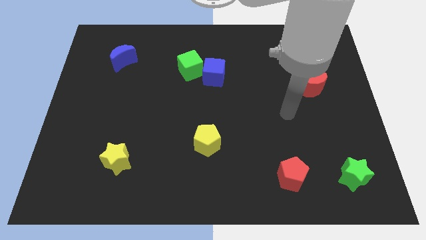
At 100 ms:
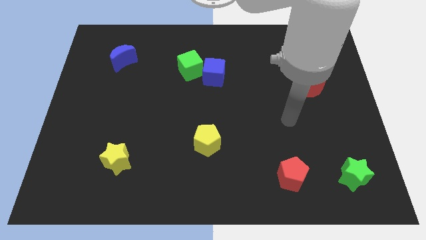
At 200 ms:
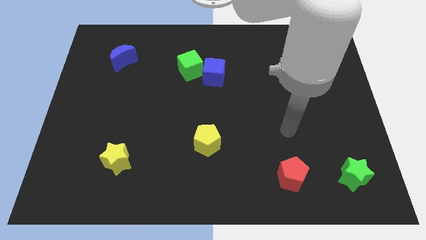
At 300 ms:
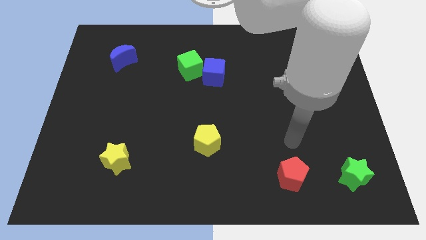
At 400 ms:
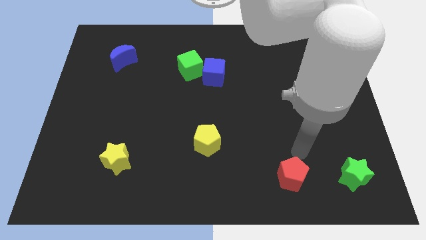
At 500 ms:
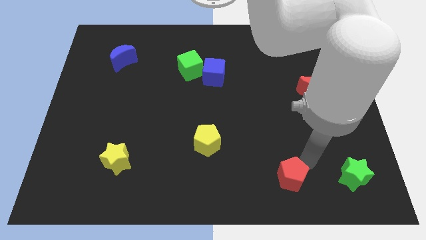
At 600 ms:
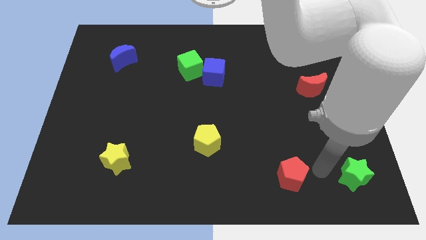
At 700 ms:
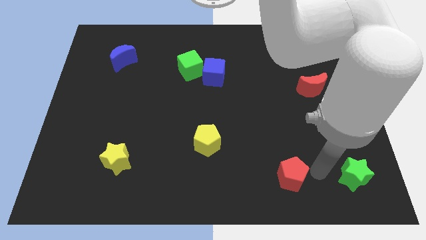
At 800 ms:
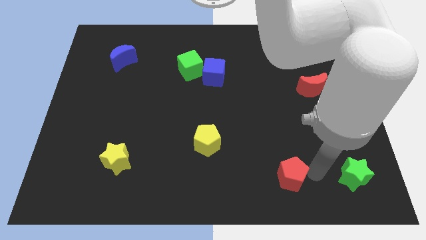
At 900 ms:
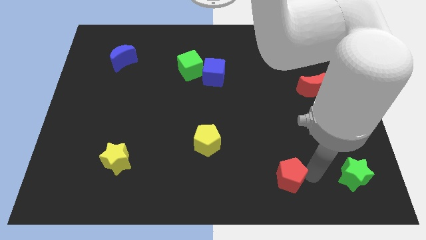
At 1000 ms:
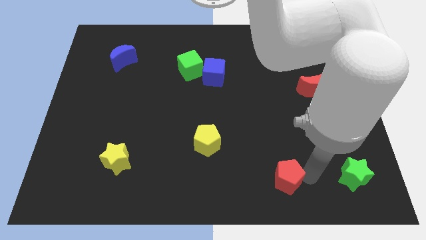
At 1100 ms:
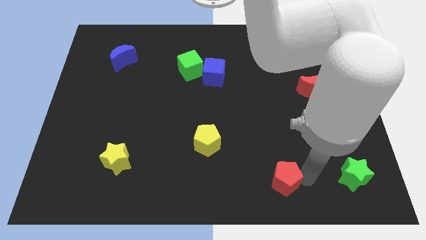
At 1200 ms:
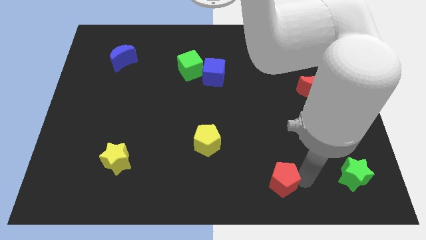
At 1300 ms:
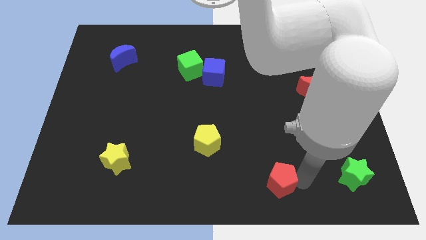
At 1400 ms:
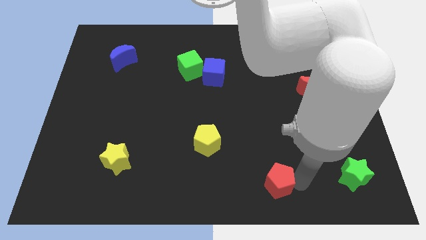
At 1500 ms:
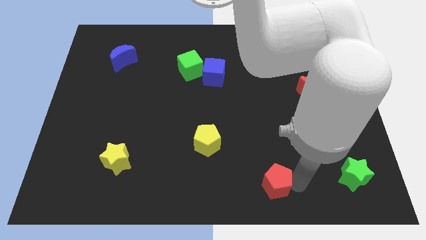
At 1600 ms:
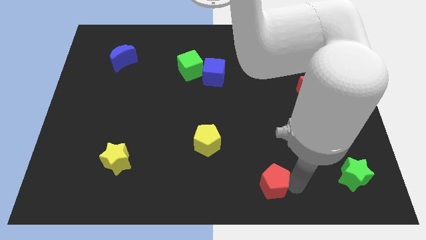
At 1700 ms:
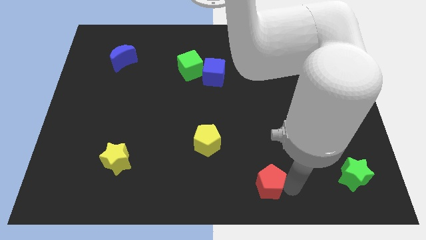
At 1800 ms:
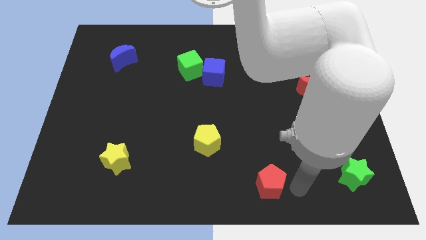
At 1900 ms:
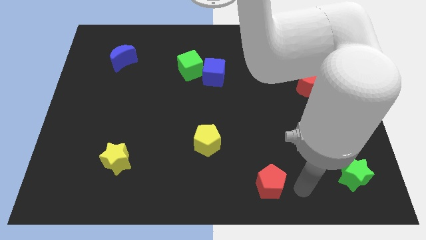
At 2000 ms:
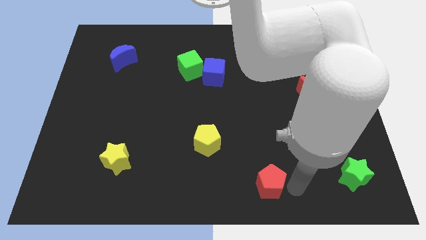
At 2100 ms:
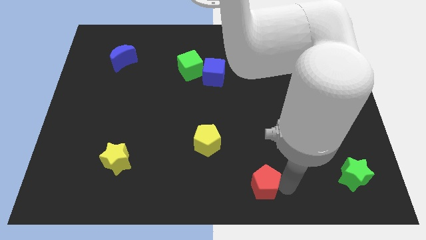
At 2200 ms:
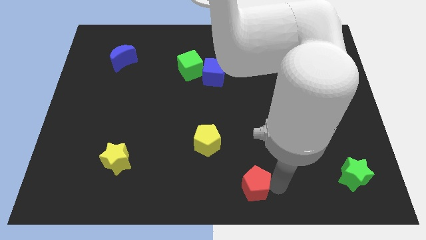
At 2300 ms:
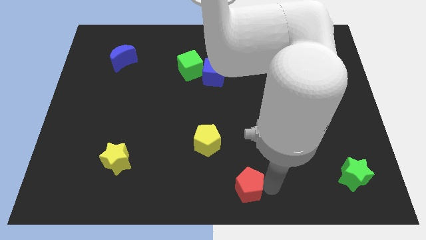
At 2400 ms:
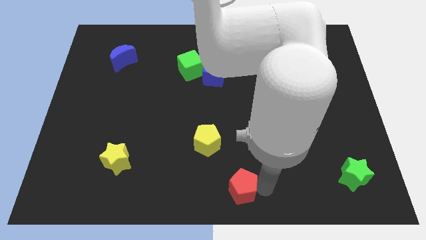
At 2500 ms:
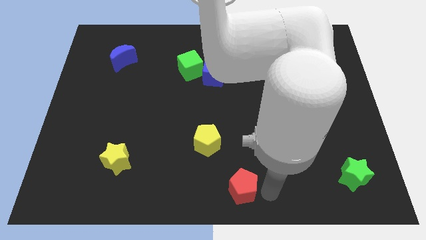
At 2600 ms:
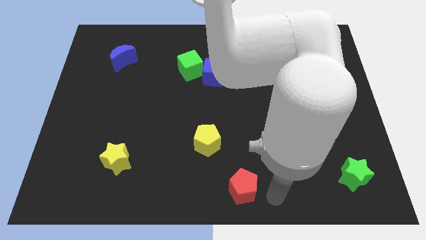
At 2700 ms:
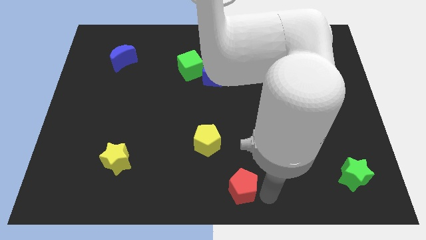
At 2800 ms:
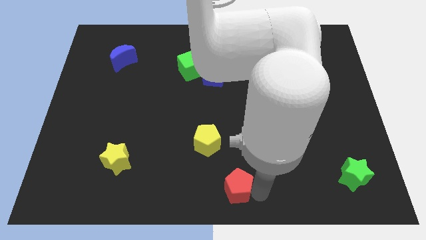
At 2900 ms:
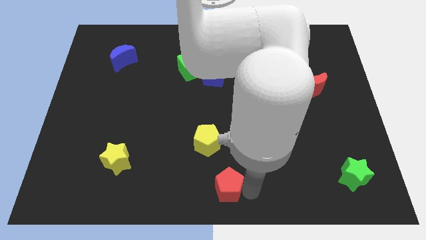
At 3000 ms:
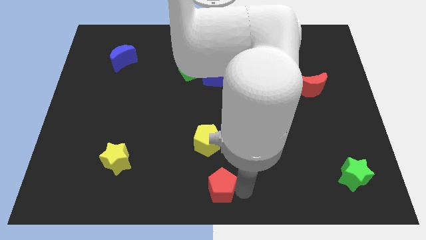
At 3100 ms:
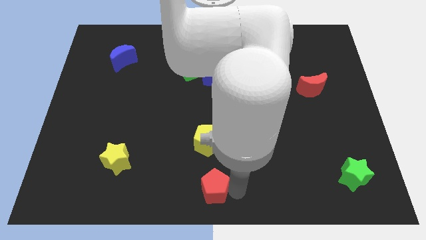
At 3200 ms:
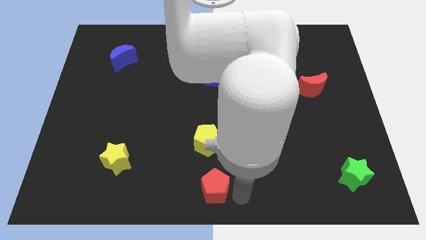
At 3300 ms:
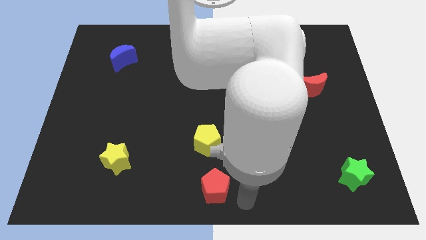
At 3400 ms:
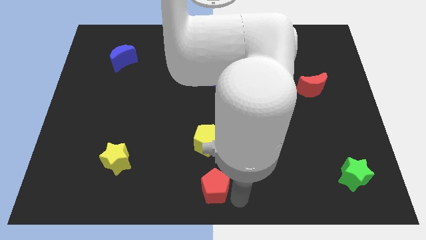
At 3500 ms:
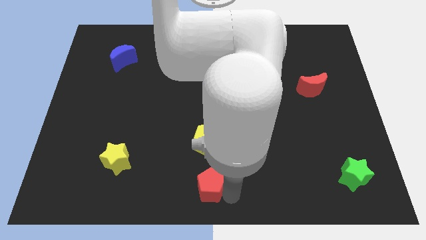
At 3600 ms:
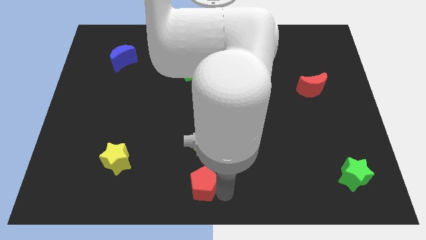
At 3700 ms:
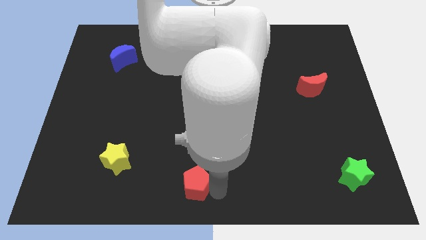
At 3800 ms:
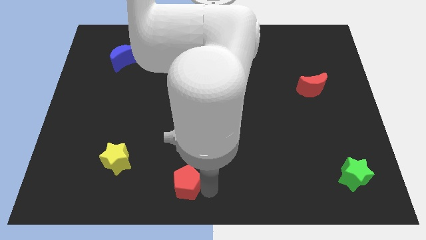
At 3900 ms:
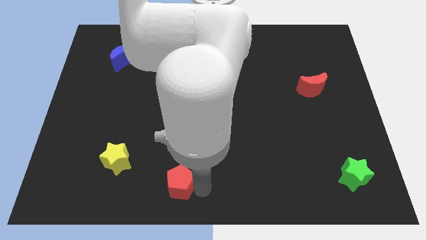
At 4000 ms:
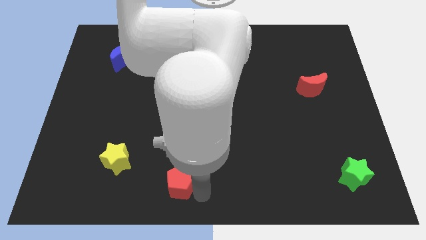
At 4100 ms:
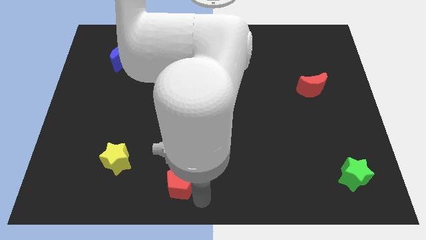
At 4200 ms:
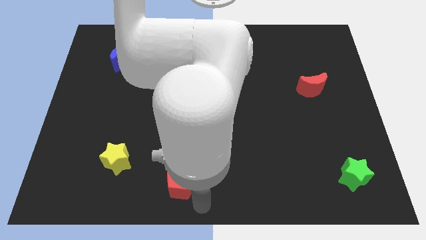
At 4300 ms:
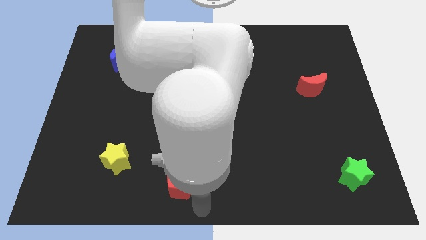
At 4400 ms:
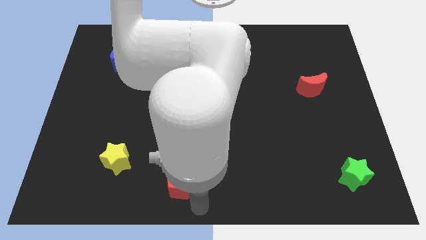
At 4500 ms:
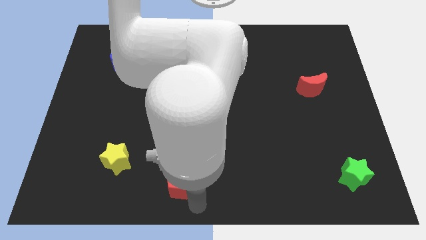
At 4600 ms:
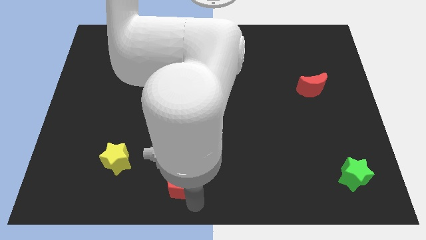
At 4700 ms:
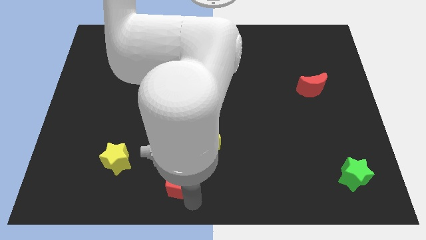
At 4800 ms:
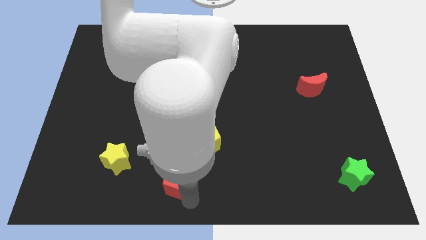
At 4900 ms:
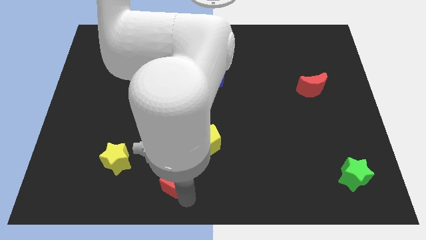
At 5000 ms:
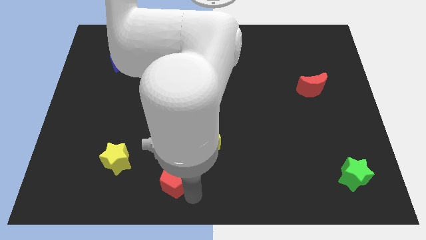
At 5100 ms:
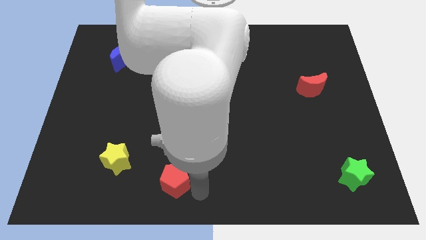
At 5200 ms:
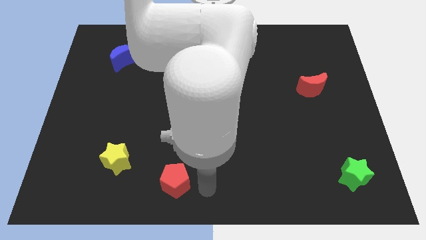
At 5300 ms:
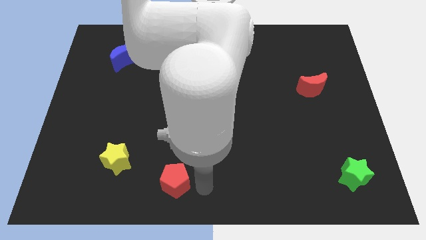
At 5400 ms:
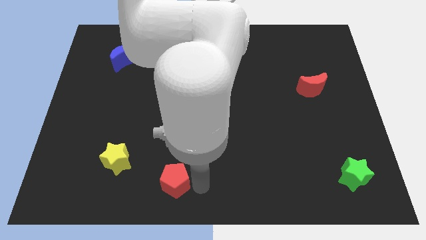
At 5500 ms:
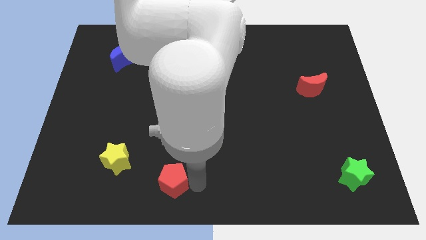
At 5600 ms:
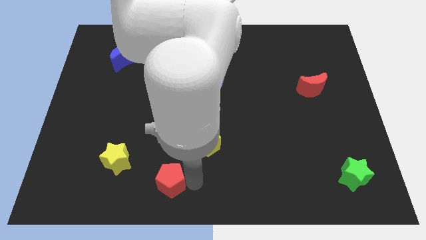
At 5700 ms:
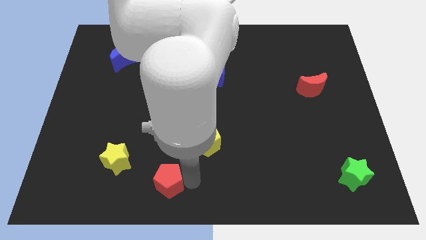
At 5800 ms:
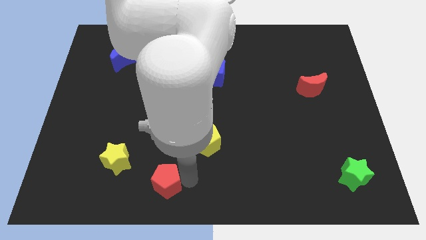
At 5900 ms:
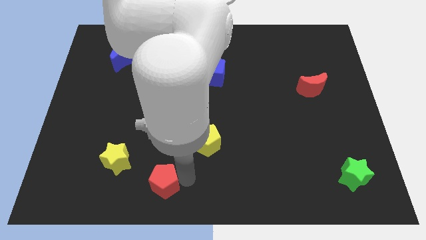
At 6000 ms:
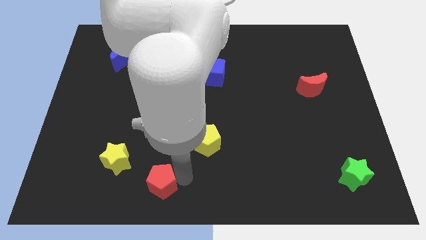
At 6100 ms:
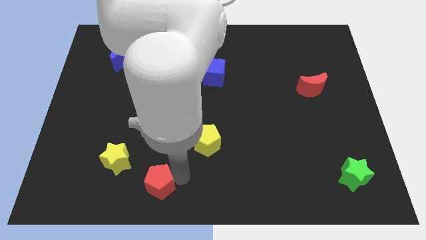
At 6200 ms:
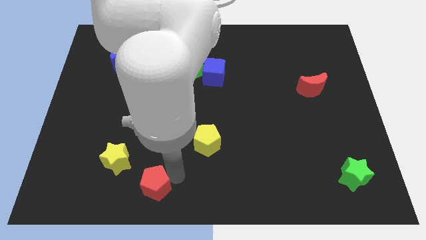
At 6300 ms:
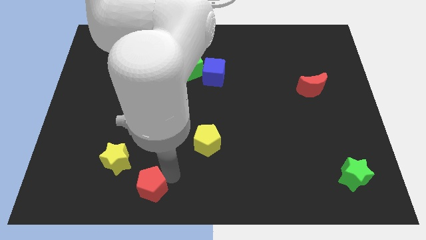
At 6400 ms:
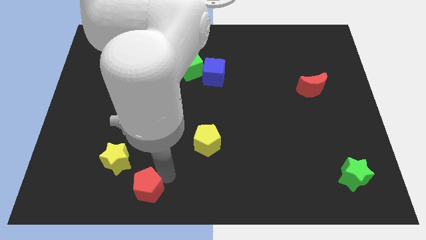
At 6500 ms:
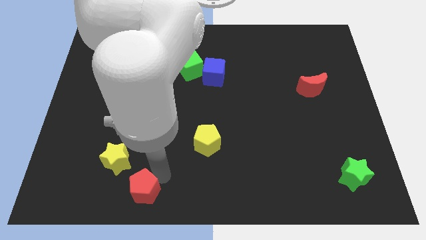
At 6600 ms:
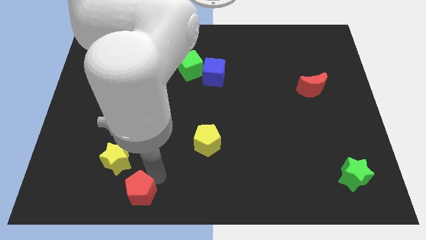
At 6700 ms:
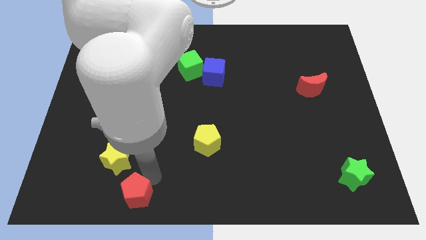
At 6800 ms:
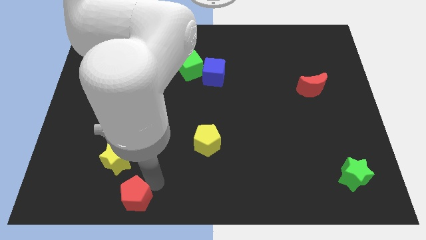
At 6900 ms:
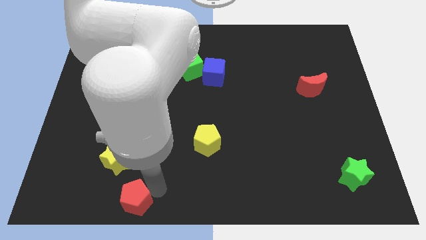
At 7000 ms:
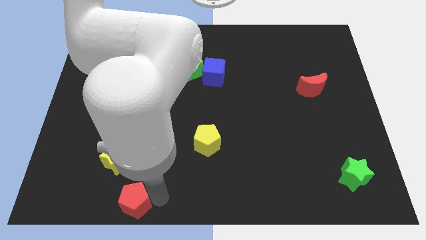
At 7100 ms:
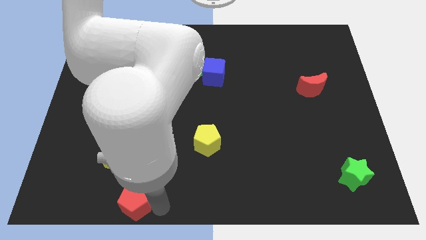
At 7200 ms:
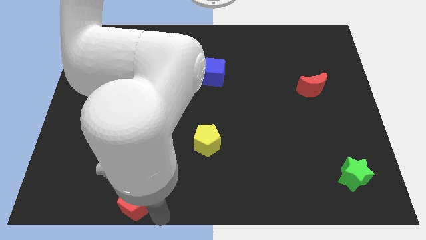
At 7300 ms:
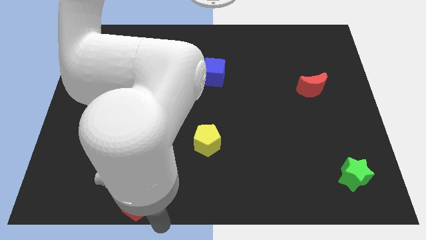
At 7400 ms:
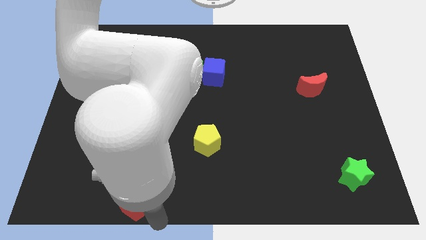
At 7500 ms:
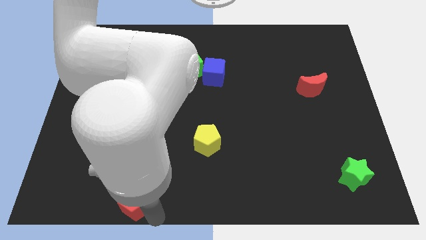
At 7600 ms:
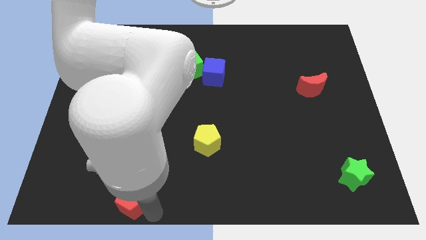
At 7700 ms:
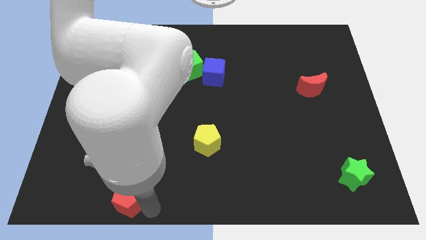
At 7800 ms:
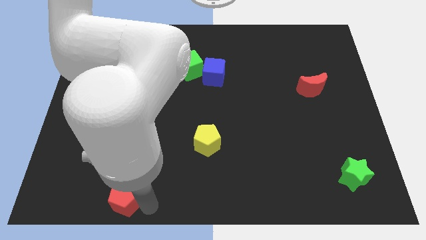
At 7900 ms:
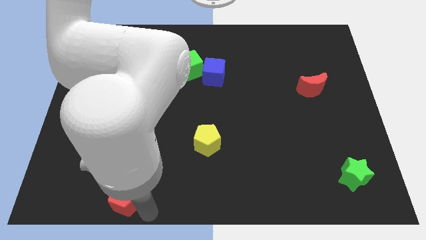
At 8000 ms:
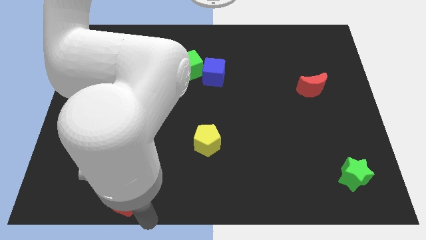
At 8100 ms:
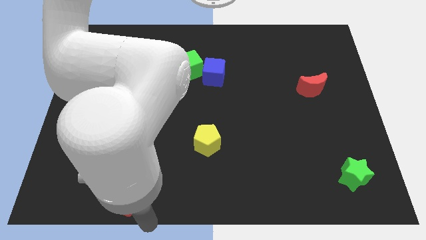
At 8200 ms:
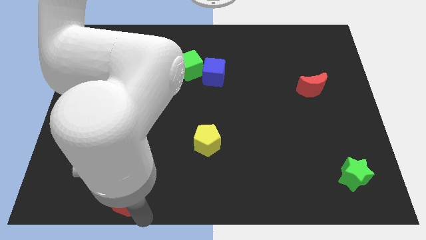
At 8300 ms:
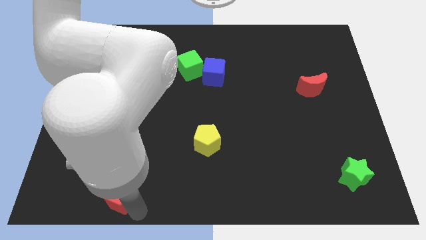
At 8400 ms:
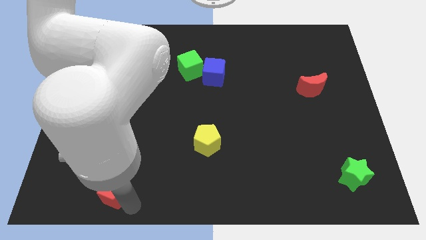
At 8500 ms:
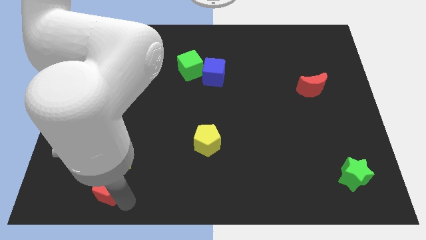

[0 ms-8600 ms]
push the red pentagon to the bottom left of the yellow star
